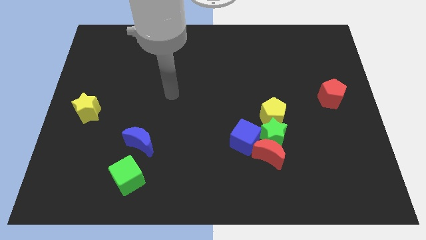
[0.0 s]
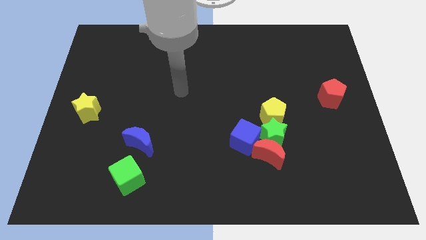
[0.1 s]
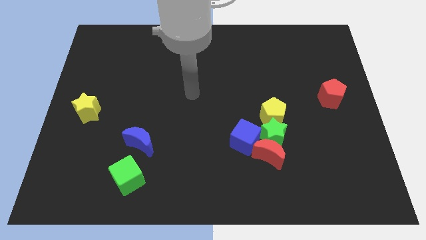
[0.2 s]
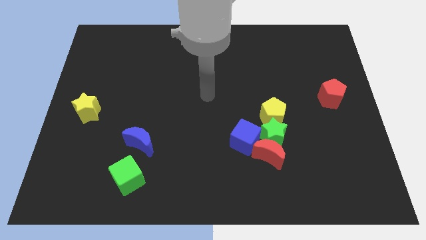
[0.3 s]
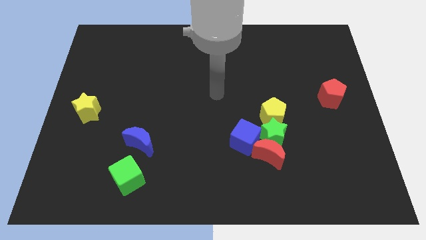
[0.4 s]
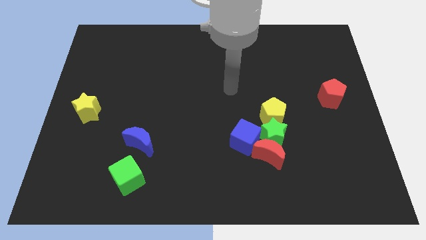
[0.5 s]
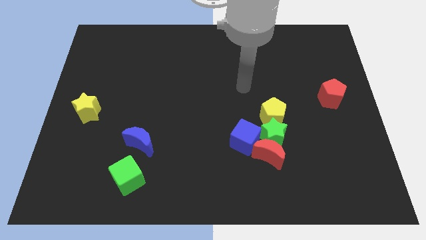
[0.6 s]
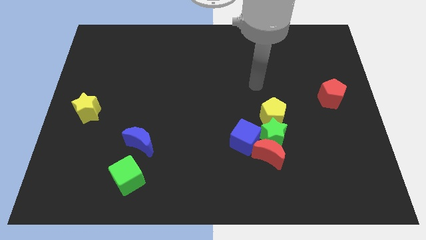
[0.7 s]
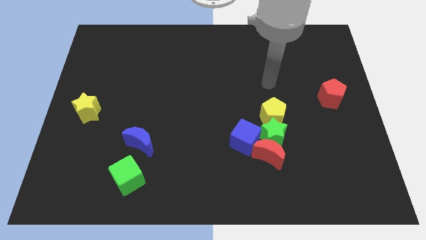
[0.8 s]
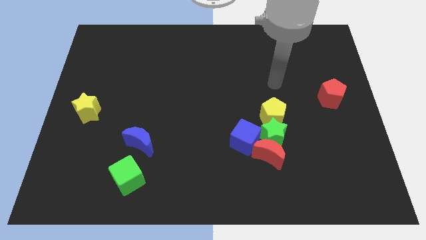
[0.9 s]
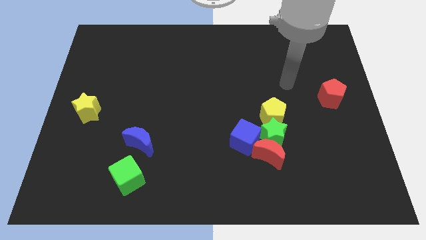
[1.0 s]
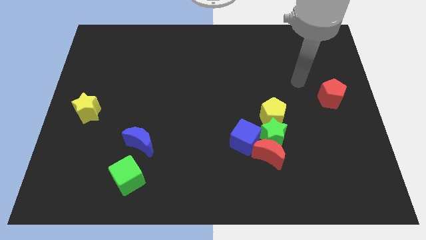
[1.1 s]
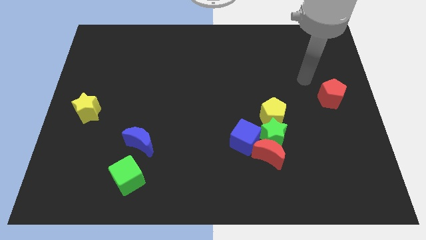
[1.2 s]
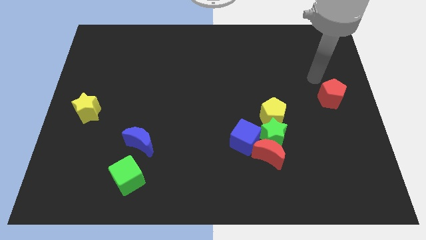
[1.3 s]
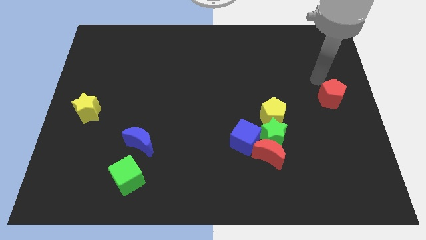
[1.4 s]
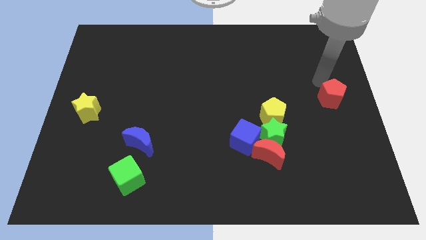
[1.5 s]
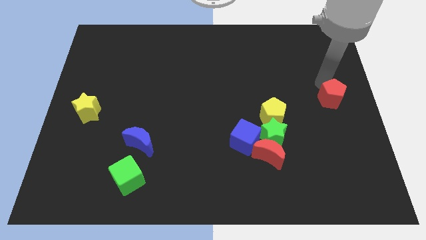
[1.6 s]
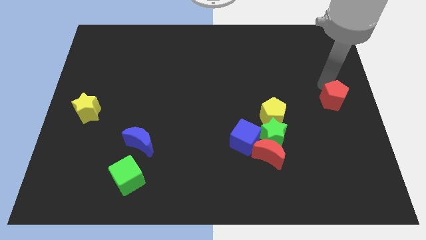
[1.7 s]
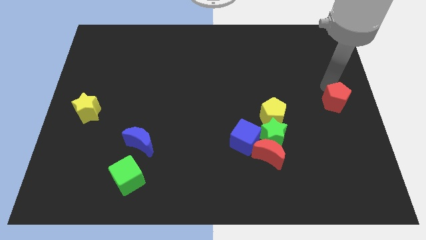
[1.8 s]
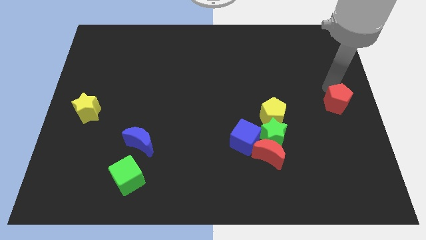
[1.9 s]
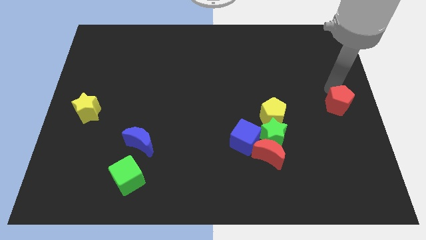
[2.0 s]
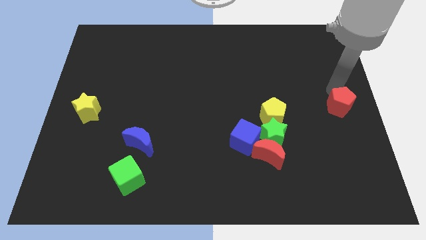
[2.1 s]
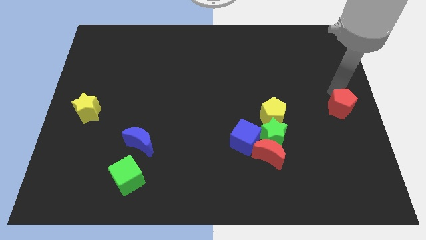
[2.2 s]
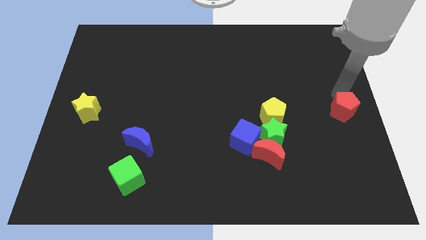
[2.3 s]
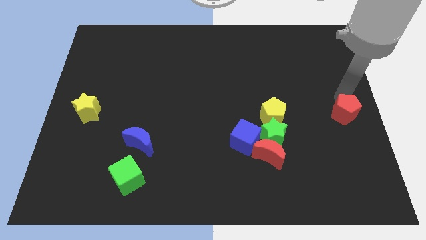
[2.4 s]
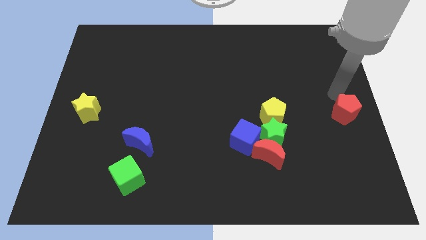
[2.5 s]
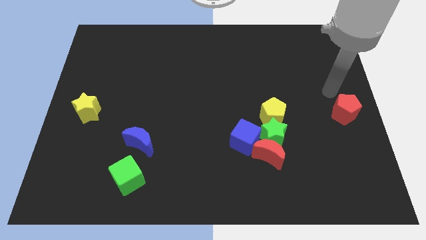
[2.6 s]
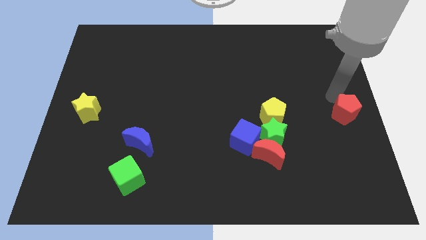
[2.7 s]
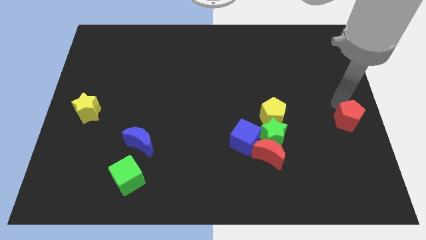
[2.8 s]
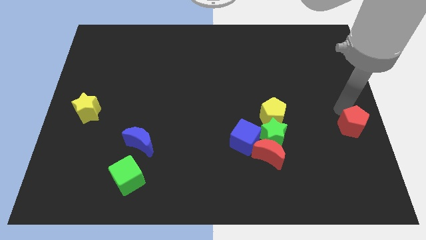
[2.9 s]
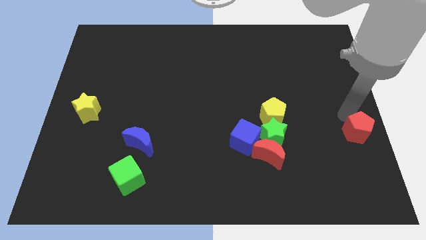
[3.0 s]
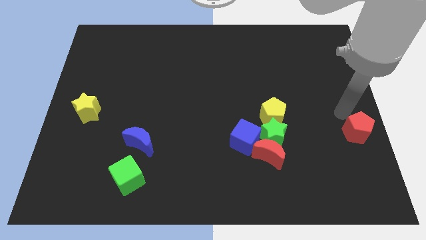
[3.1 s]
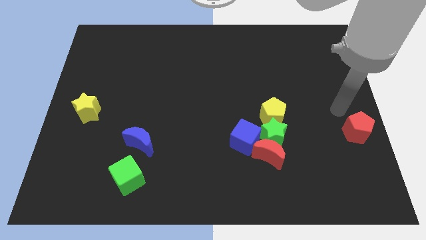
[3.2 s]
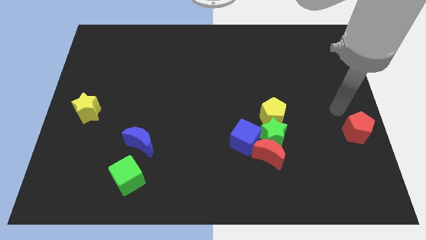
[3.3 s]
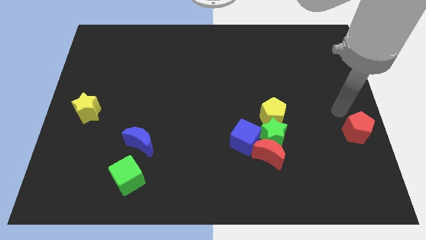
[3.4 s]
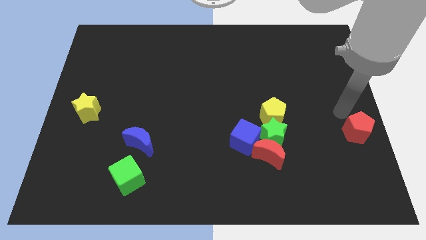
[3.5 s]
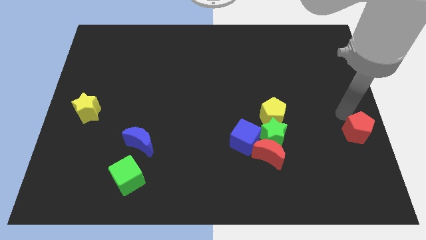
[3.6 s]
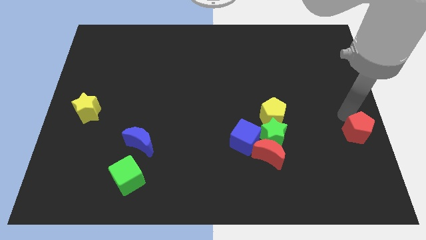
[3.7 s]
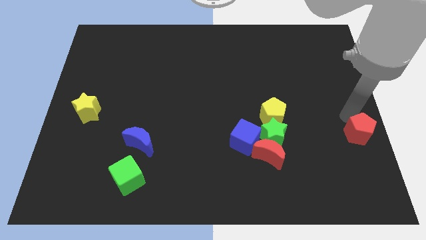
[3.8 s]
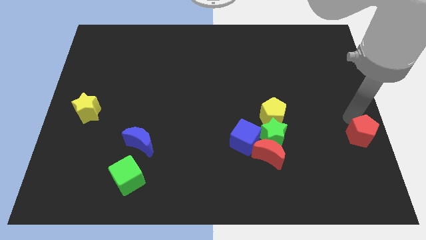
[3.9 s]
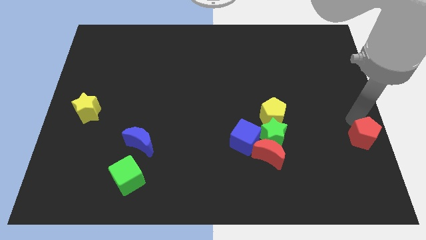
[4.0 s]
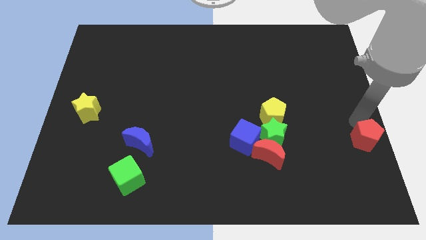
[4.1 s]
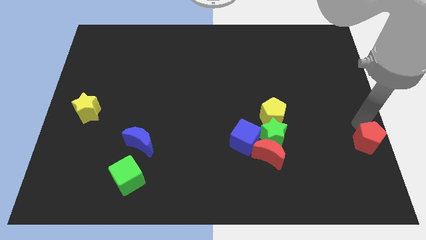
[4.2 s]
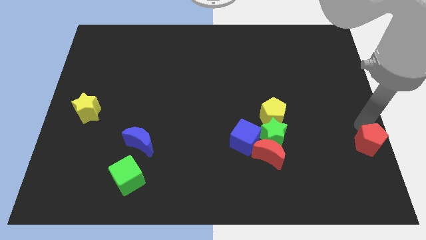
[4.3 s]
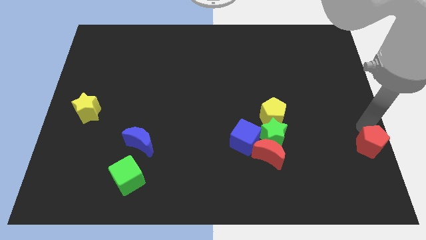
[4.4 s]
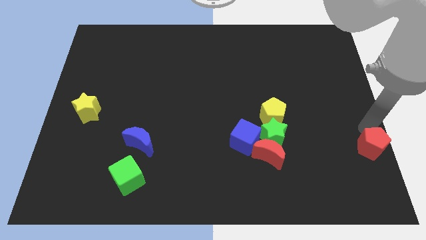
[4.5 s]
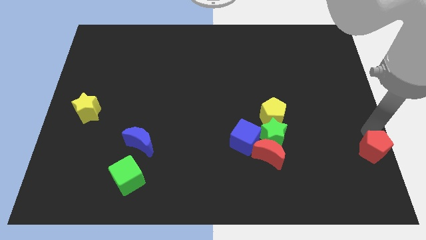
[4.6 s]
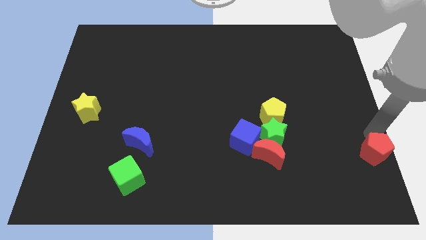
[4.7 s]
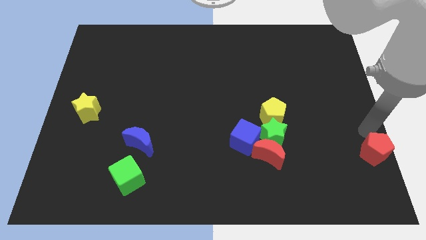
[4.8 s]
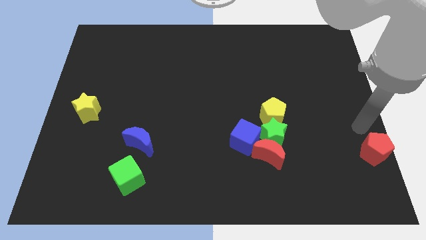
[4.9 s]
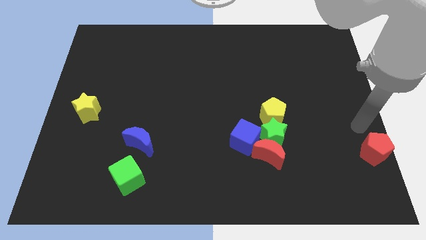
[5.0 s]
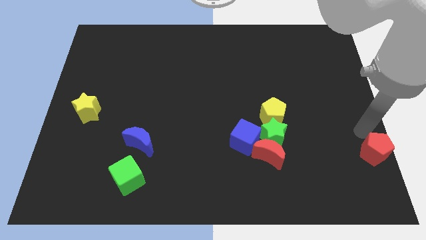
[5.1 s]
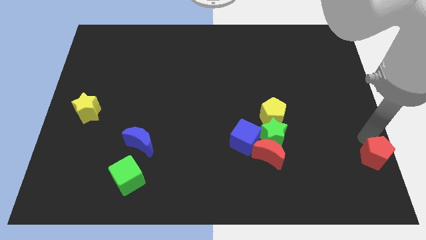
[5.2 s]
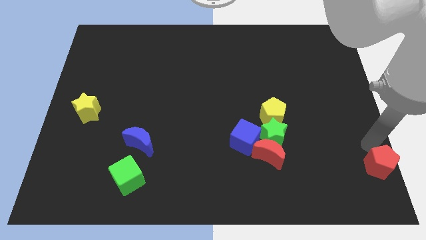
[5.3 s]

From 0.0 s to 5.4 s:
push the red pentagon to the bottom right of the board

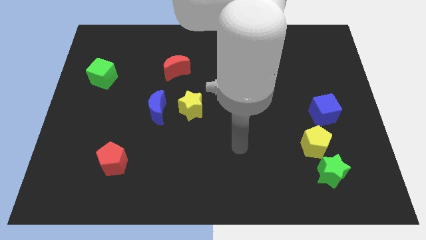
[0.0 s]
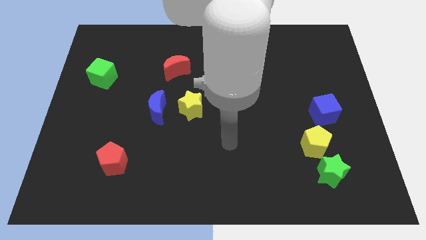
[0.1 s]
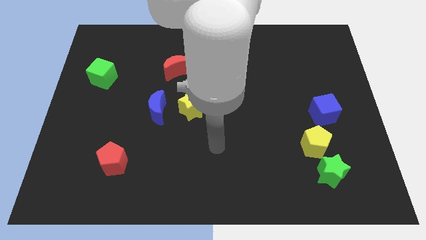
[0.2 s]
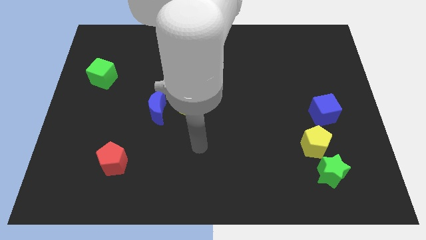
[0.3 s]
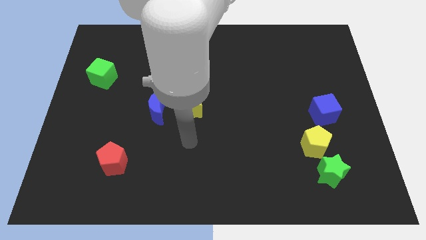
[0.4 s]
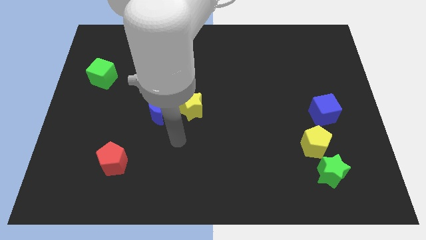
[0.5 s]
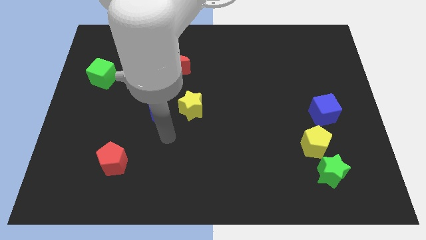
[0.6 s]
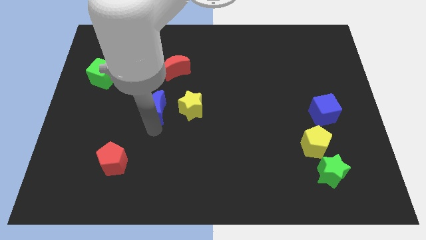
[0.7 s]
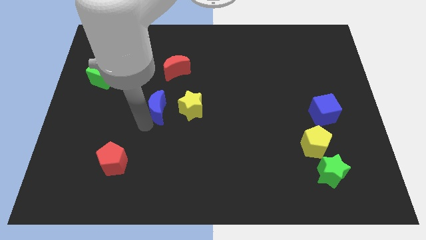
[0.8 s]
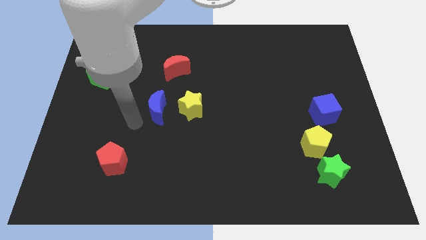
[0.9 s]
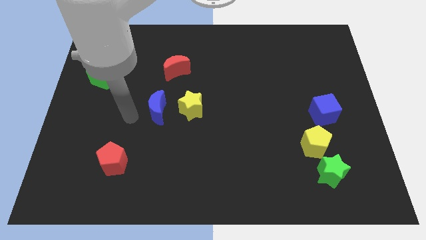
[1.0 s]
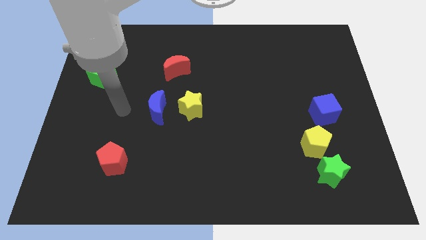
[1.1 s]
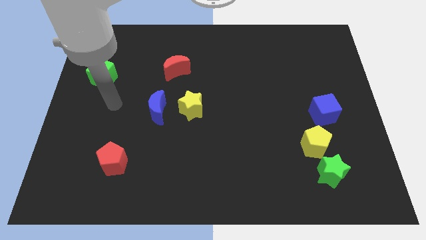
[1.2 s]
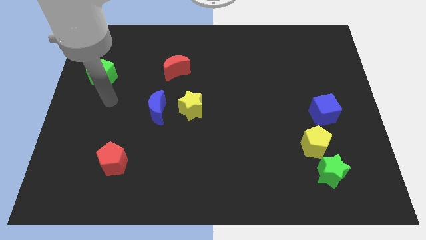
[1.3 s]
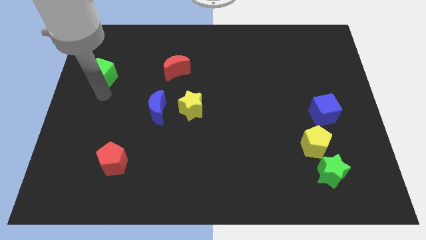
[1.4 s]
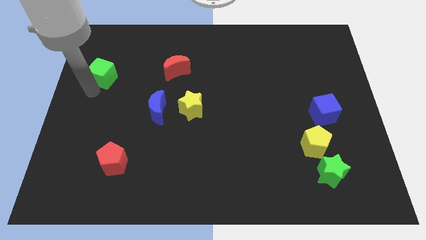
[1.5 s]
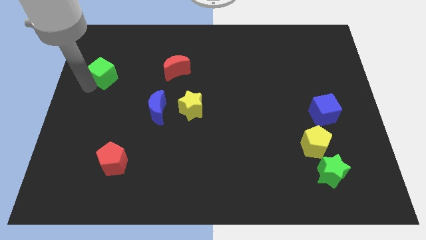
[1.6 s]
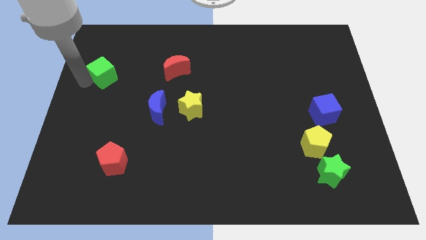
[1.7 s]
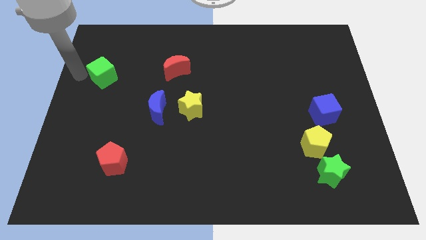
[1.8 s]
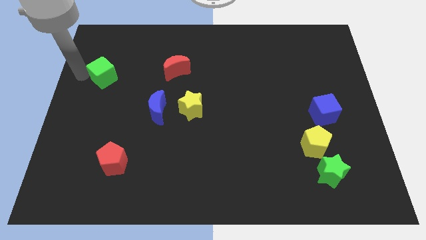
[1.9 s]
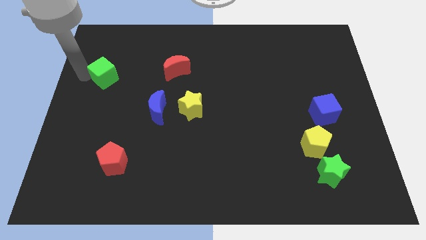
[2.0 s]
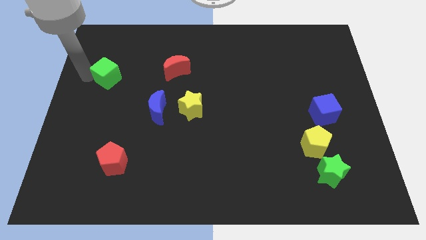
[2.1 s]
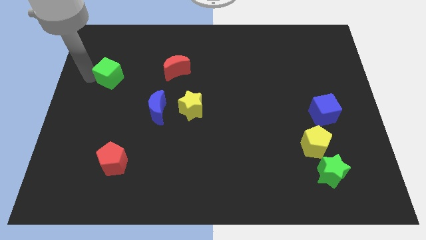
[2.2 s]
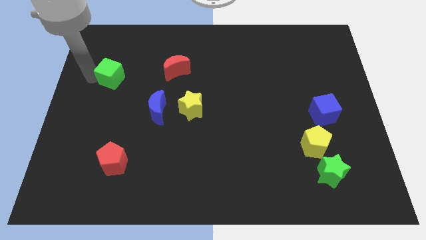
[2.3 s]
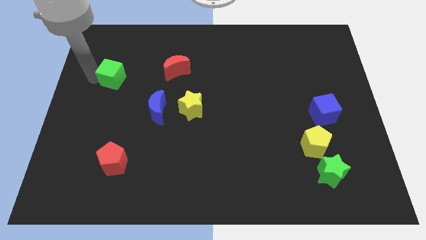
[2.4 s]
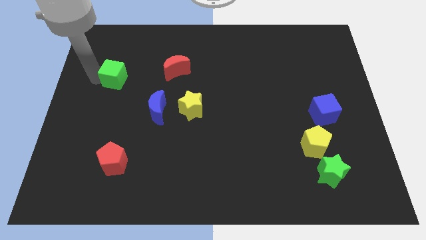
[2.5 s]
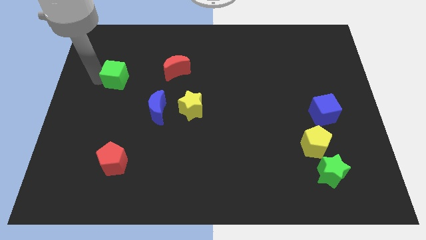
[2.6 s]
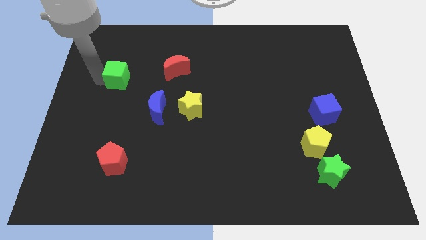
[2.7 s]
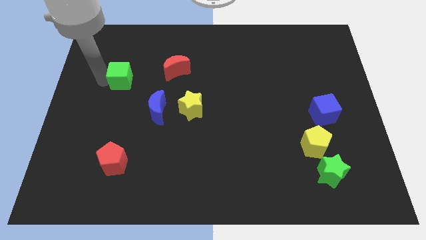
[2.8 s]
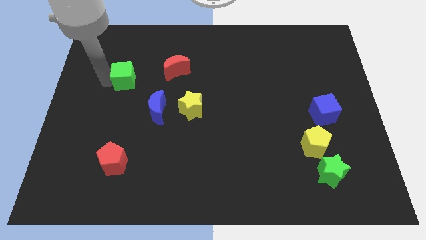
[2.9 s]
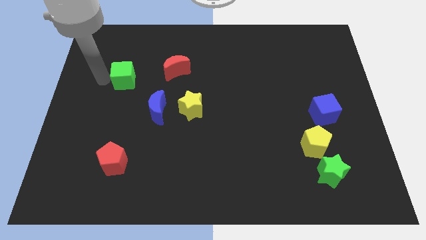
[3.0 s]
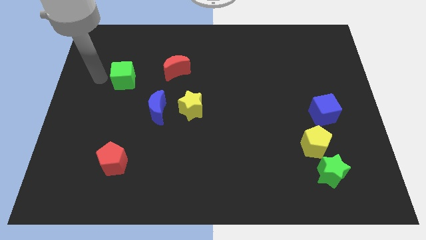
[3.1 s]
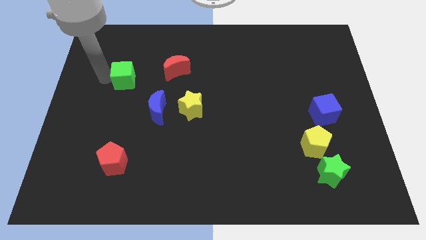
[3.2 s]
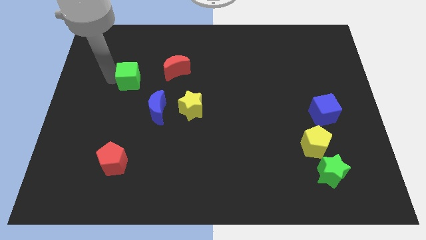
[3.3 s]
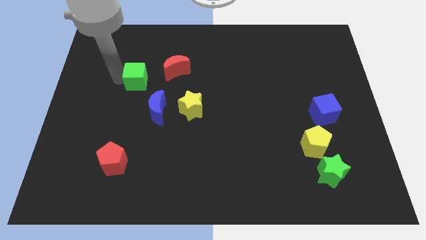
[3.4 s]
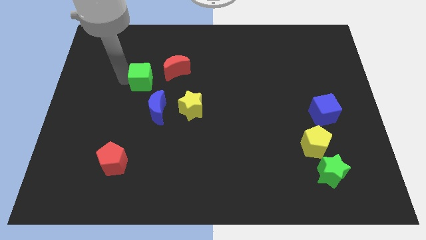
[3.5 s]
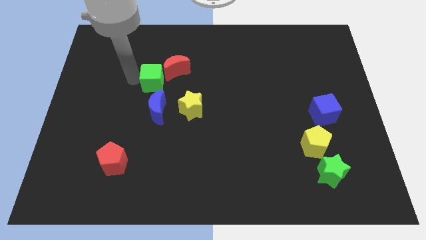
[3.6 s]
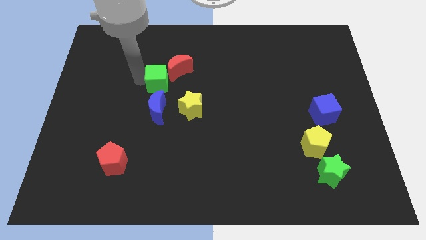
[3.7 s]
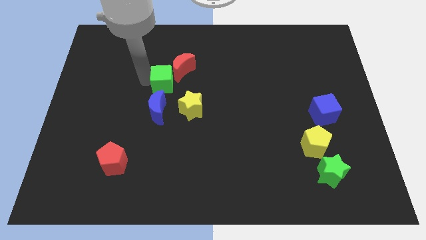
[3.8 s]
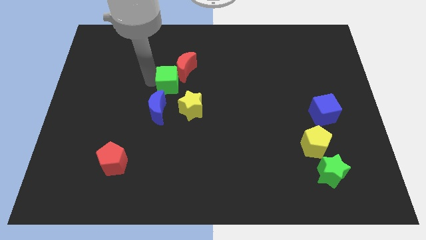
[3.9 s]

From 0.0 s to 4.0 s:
push the green cube to the middle of the board
